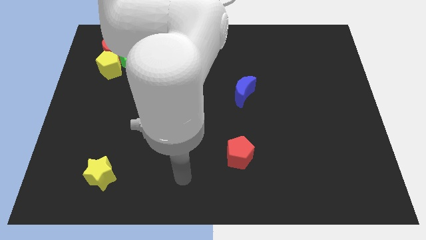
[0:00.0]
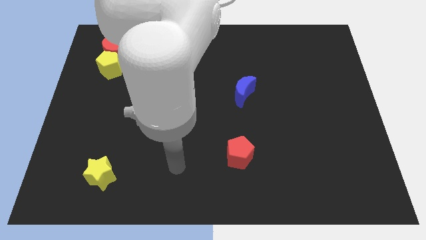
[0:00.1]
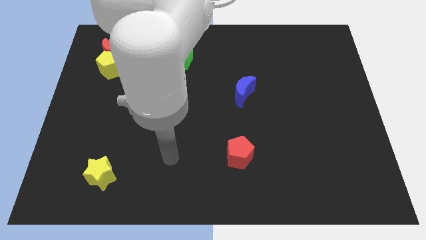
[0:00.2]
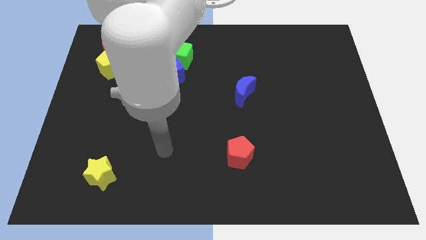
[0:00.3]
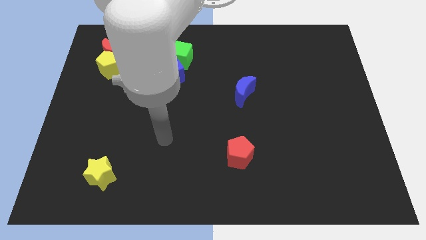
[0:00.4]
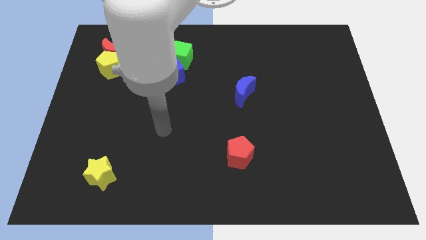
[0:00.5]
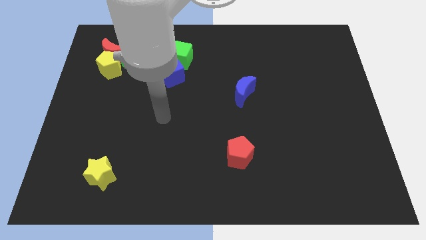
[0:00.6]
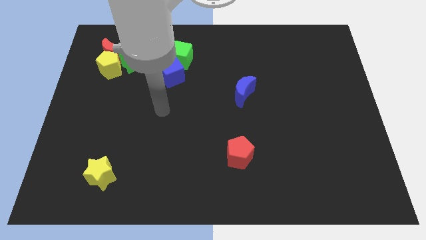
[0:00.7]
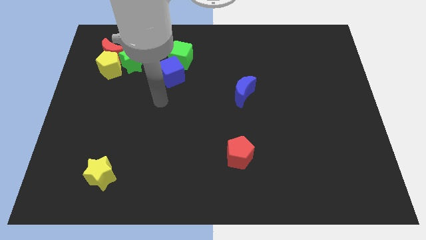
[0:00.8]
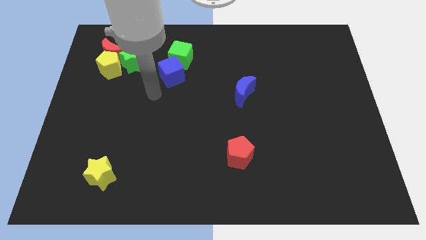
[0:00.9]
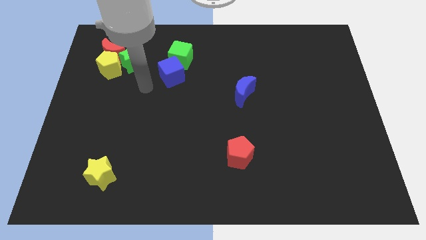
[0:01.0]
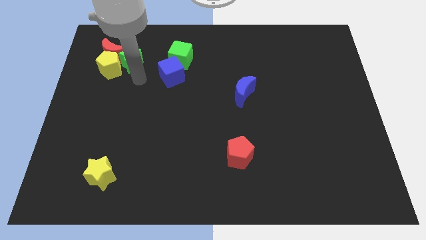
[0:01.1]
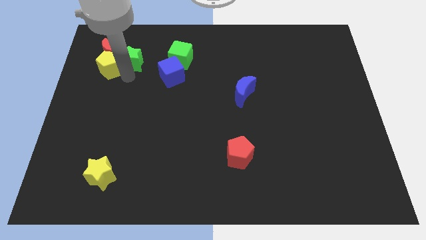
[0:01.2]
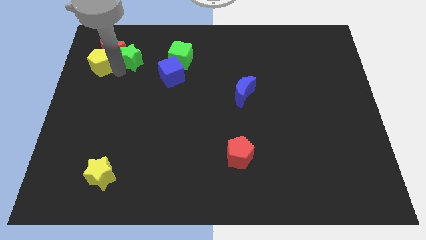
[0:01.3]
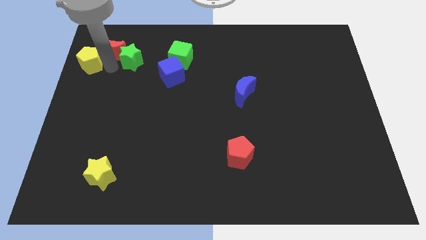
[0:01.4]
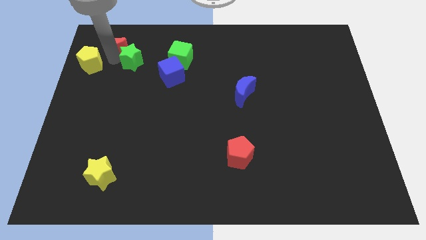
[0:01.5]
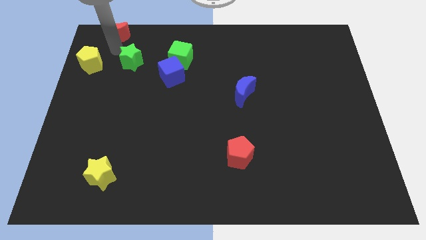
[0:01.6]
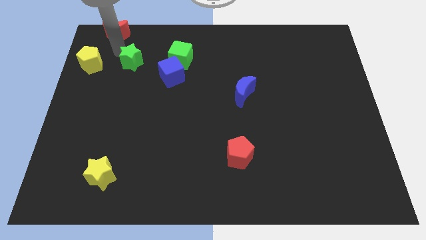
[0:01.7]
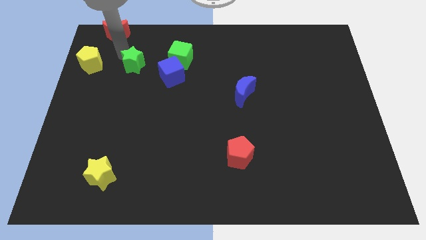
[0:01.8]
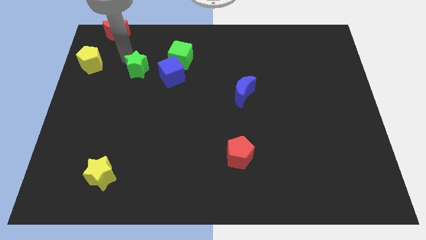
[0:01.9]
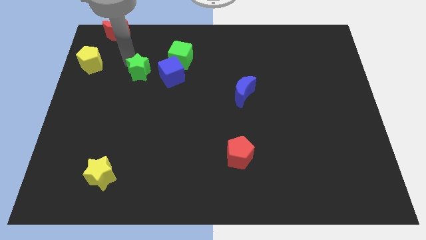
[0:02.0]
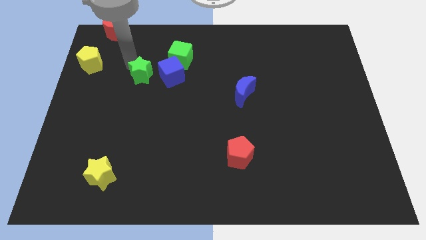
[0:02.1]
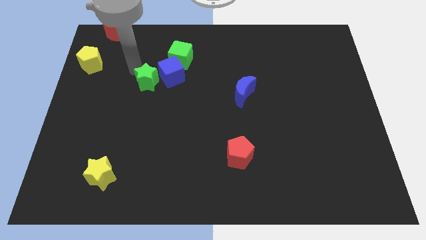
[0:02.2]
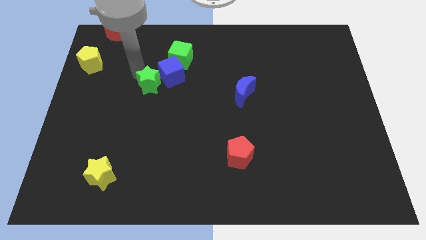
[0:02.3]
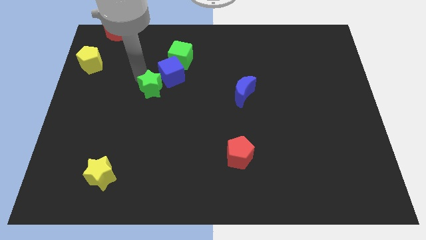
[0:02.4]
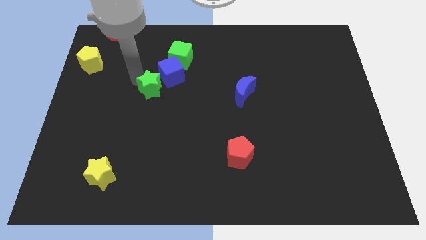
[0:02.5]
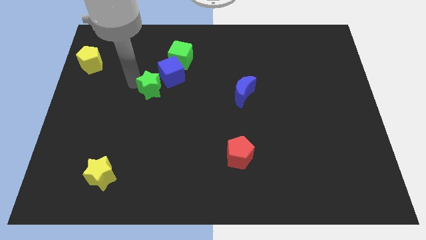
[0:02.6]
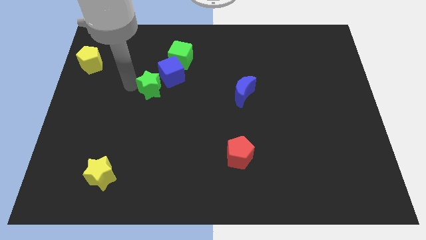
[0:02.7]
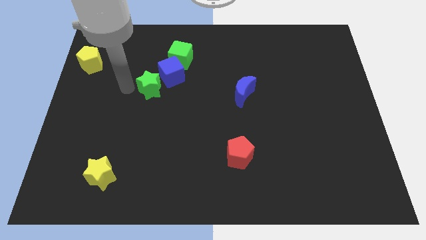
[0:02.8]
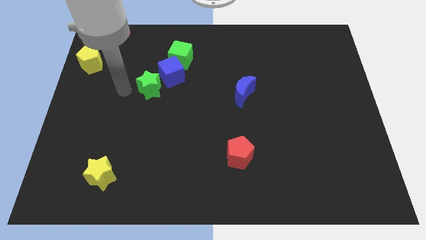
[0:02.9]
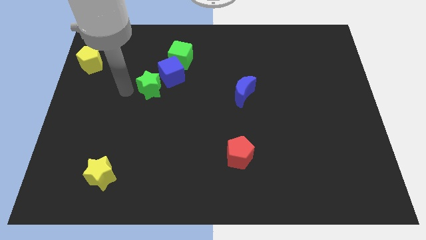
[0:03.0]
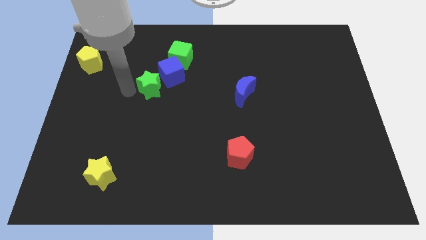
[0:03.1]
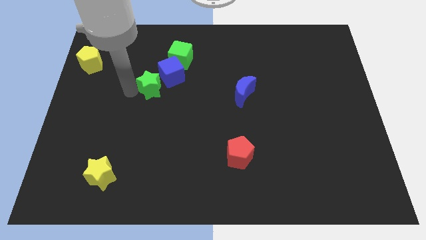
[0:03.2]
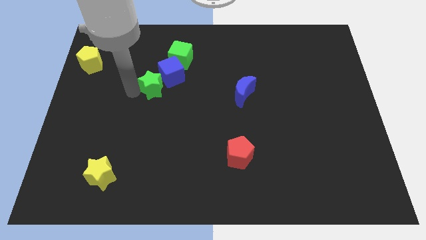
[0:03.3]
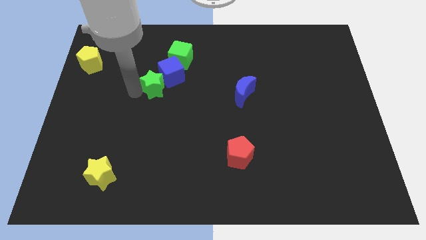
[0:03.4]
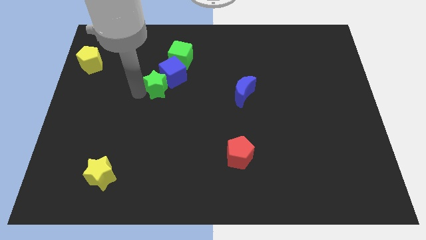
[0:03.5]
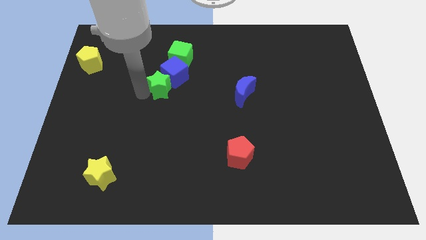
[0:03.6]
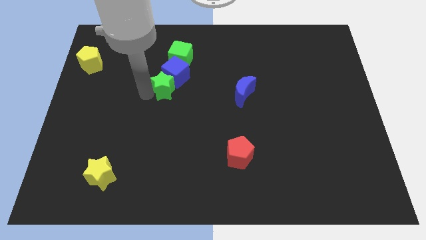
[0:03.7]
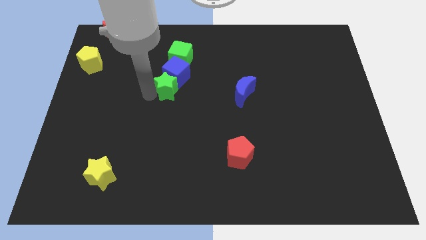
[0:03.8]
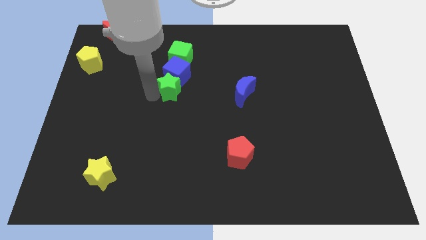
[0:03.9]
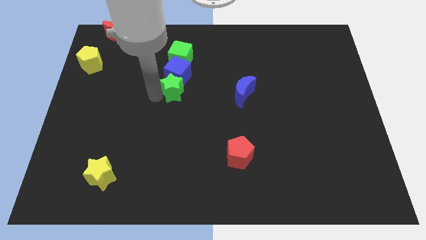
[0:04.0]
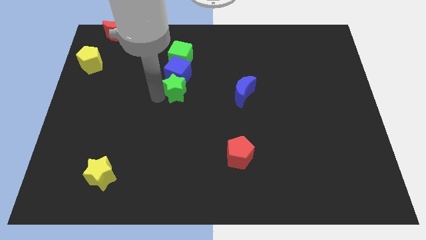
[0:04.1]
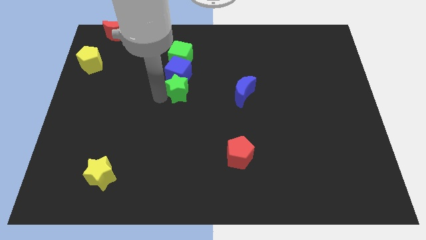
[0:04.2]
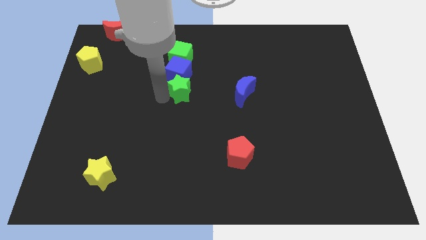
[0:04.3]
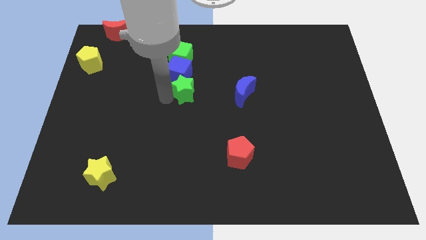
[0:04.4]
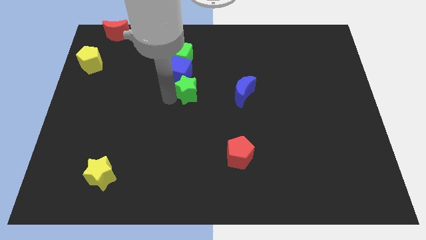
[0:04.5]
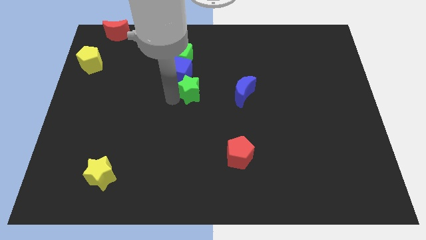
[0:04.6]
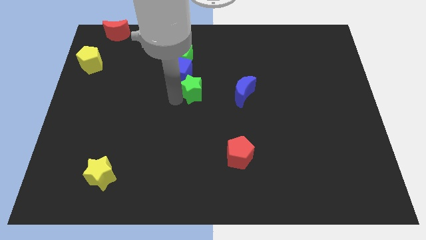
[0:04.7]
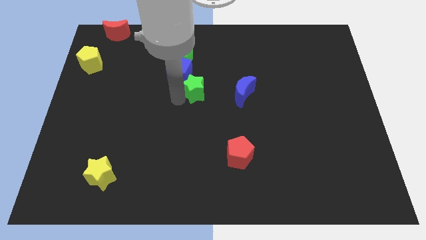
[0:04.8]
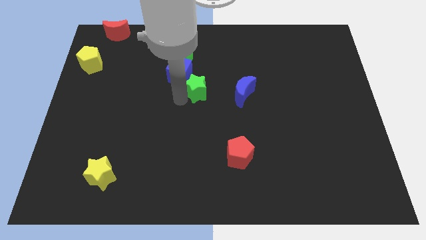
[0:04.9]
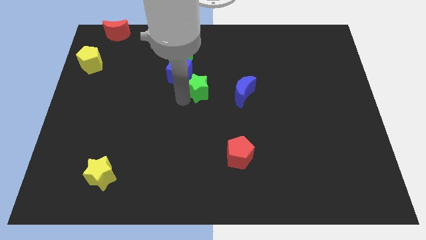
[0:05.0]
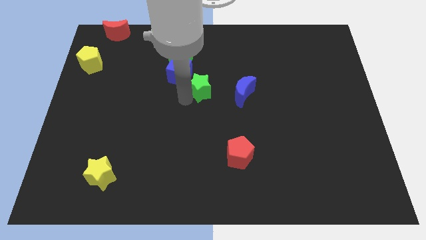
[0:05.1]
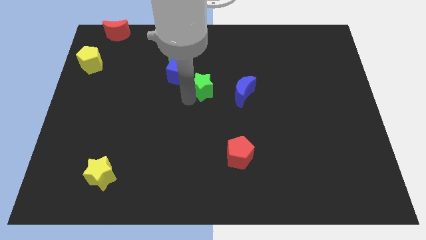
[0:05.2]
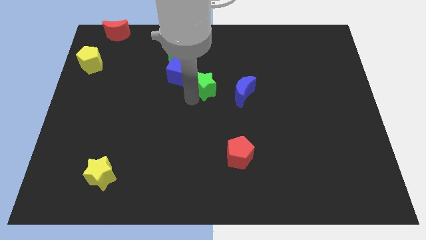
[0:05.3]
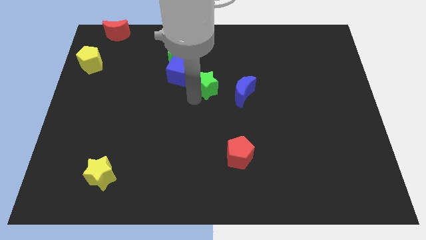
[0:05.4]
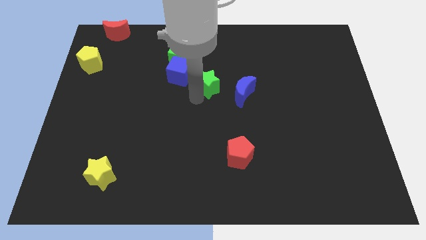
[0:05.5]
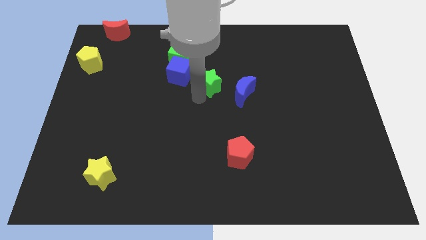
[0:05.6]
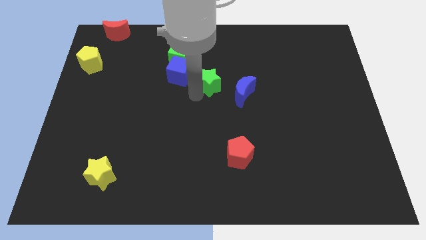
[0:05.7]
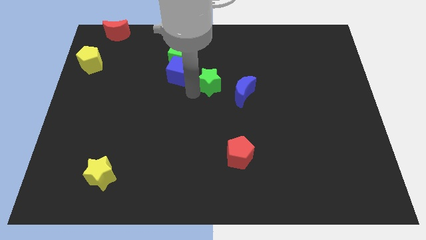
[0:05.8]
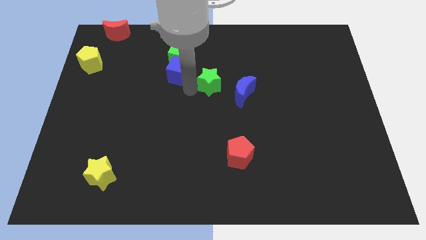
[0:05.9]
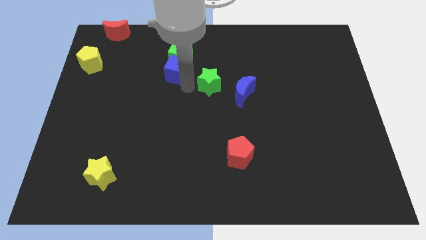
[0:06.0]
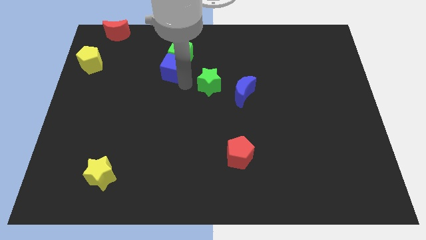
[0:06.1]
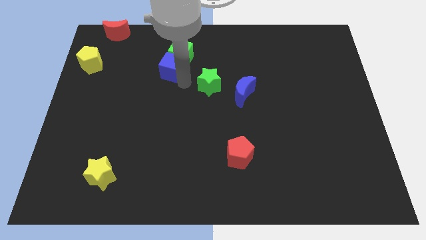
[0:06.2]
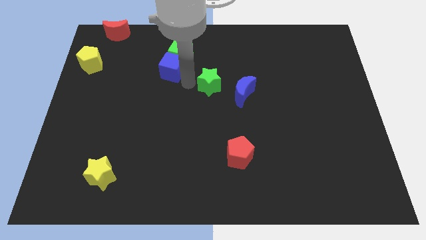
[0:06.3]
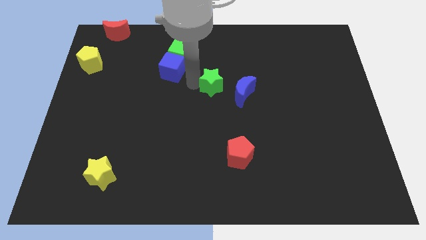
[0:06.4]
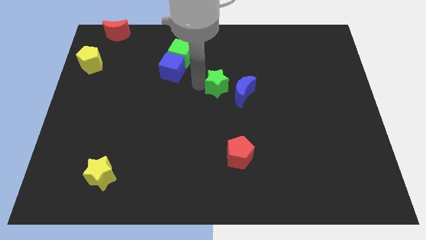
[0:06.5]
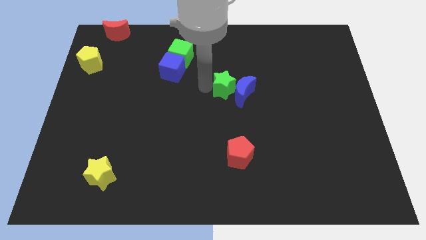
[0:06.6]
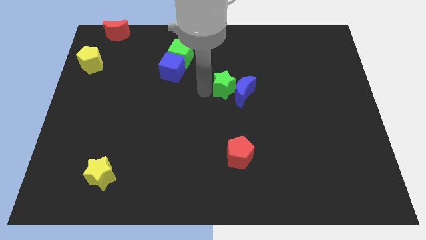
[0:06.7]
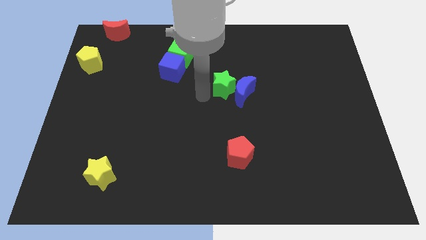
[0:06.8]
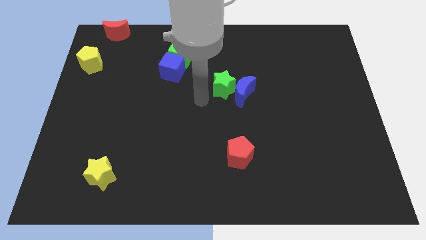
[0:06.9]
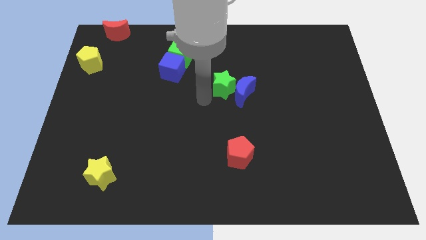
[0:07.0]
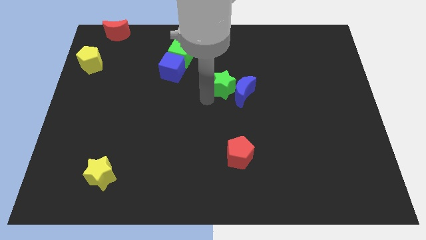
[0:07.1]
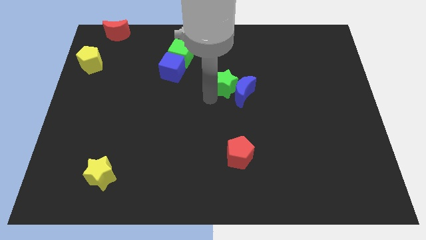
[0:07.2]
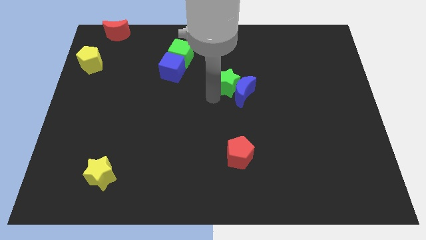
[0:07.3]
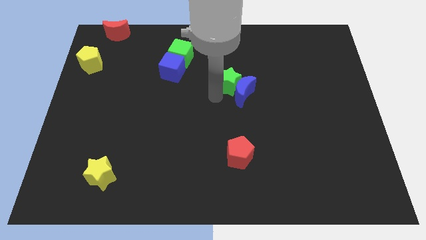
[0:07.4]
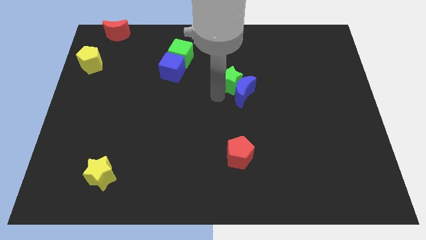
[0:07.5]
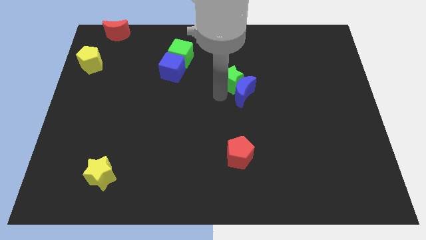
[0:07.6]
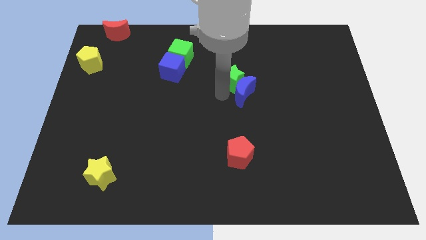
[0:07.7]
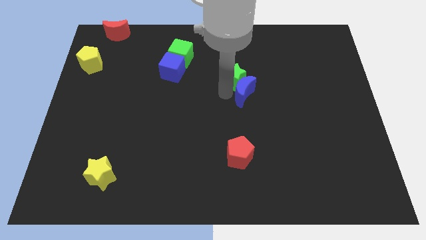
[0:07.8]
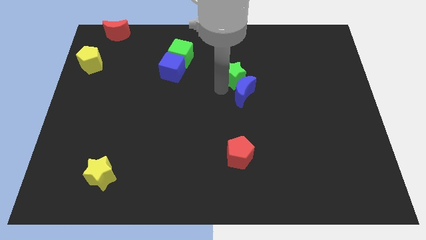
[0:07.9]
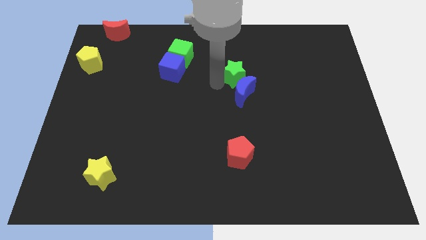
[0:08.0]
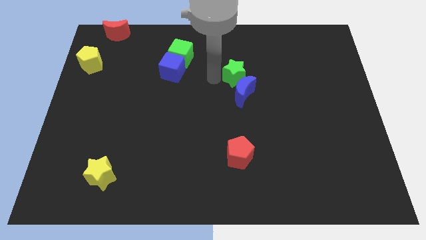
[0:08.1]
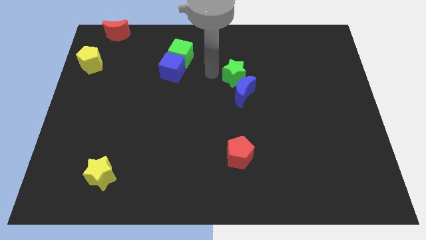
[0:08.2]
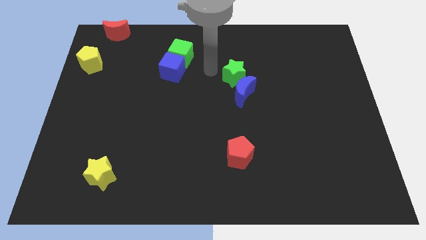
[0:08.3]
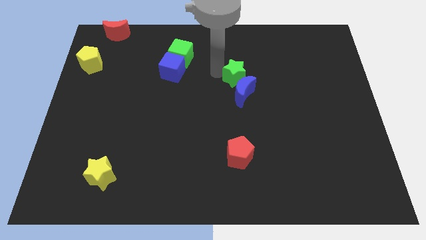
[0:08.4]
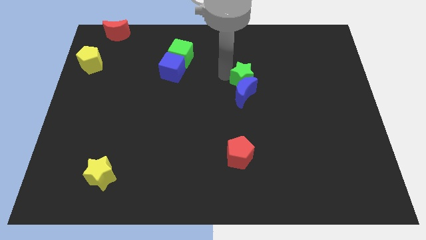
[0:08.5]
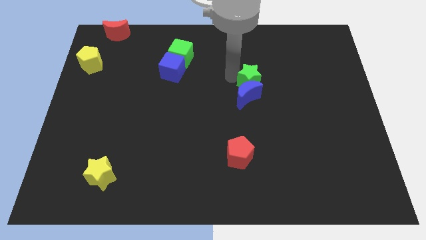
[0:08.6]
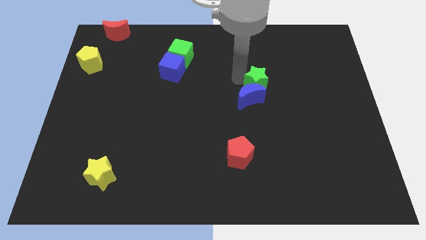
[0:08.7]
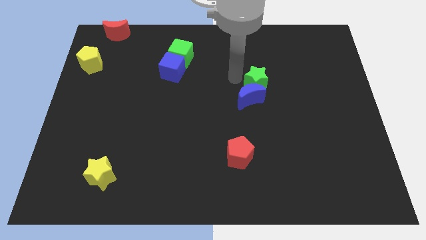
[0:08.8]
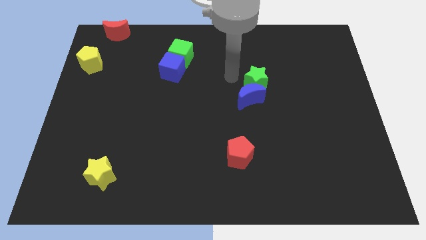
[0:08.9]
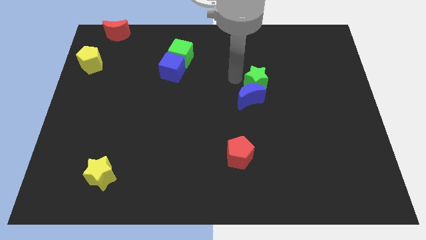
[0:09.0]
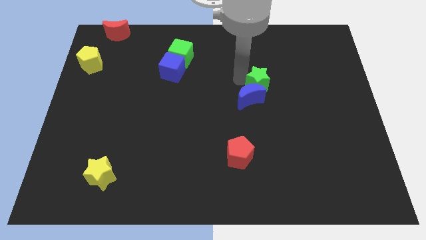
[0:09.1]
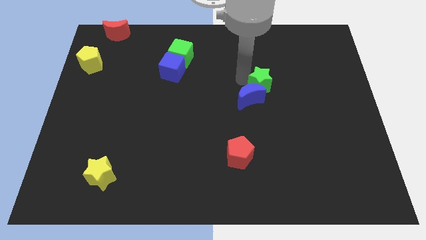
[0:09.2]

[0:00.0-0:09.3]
push the green star to the right side of the blue moon
